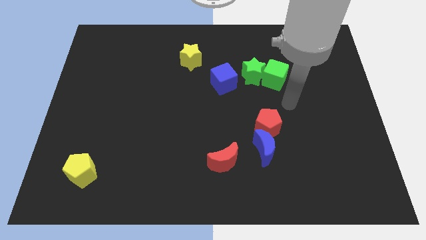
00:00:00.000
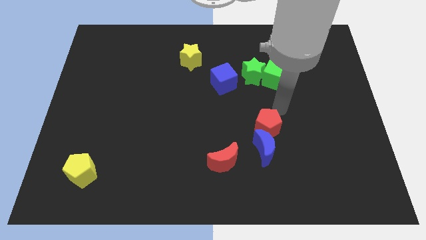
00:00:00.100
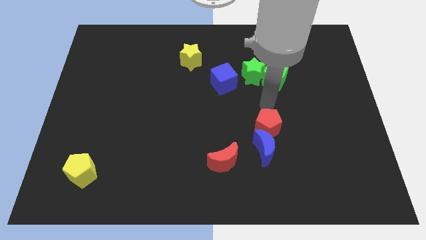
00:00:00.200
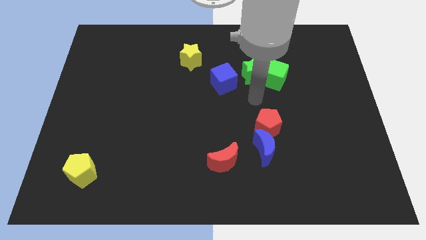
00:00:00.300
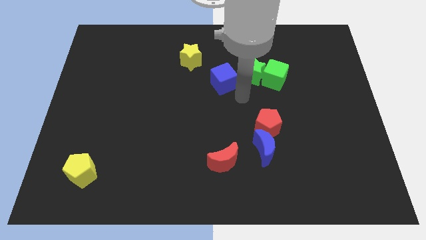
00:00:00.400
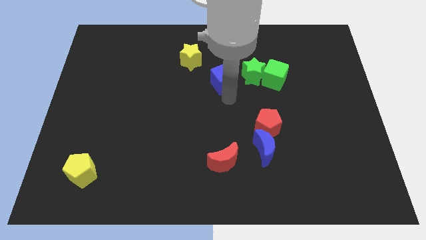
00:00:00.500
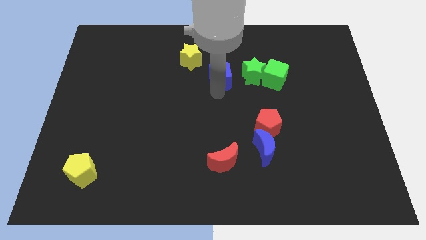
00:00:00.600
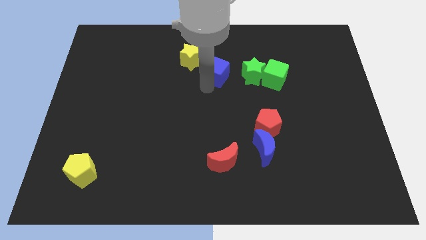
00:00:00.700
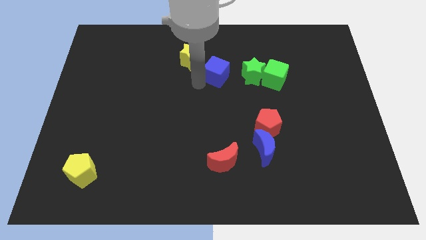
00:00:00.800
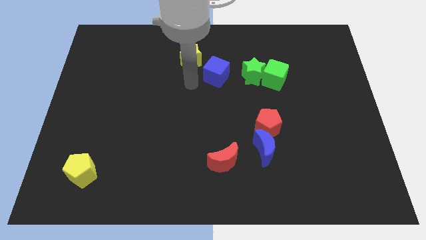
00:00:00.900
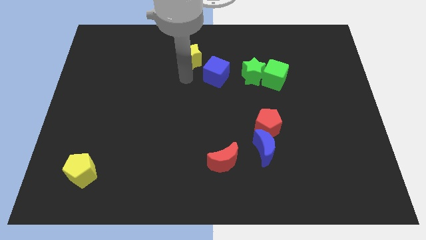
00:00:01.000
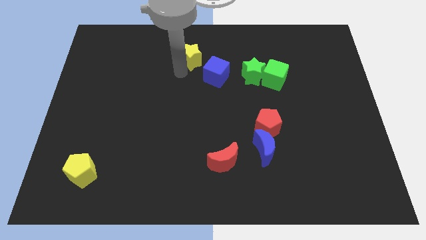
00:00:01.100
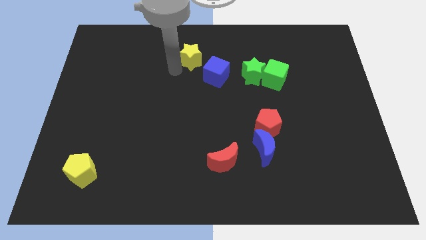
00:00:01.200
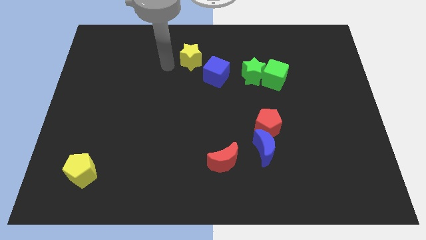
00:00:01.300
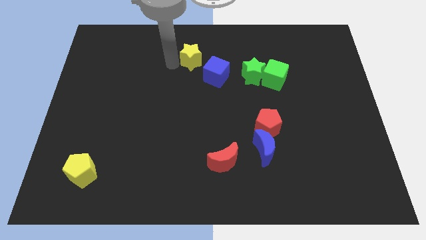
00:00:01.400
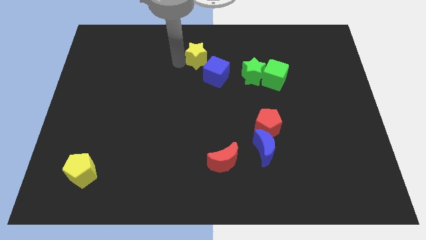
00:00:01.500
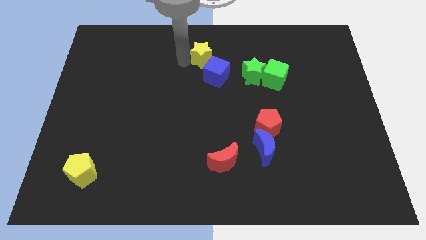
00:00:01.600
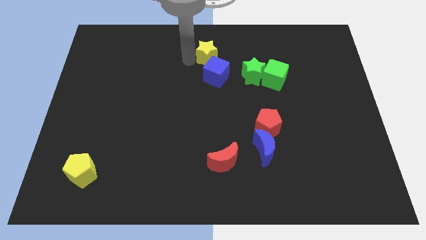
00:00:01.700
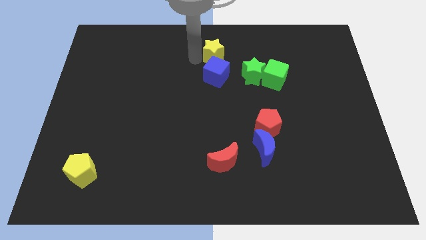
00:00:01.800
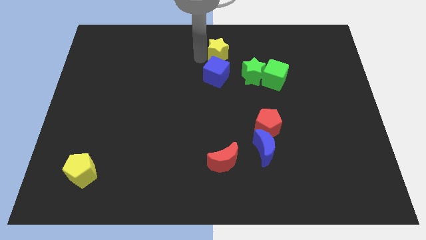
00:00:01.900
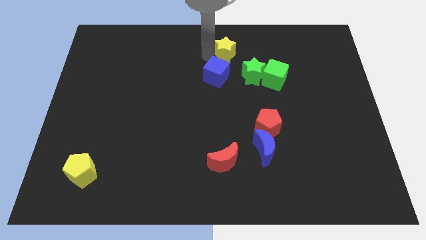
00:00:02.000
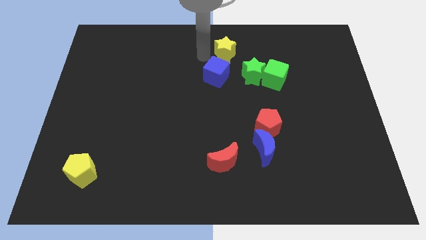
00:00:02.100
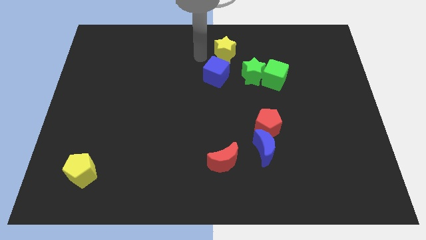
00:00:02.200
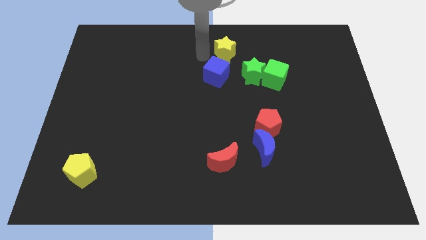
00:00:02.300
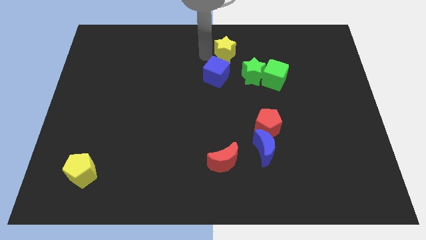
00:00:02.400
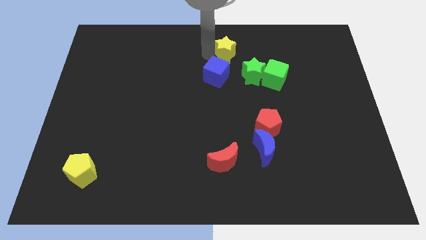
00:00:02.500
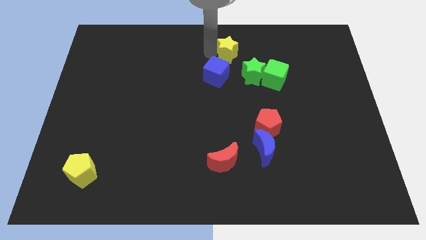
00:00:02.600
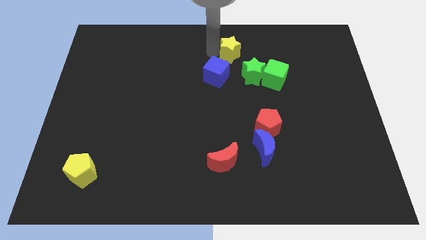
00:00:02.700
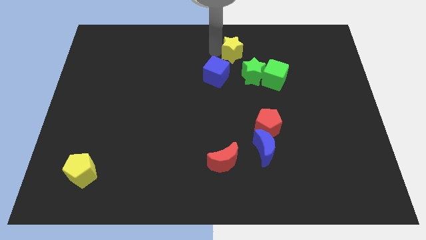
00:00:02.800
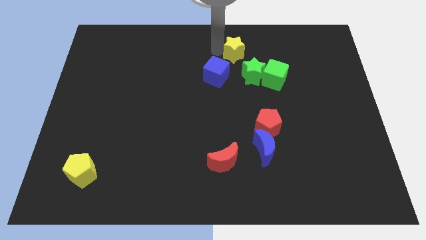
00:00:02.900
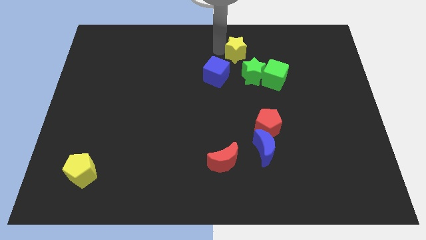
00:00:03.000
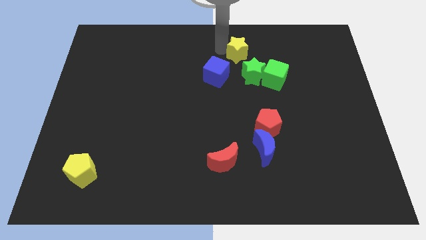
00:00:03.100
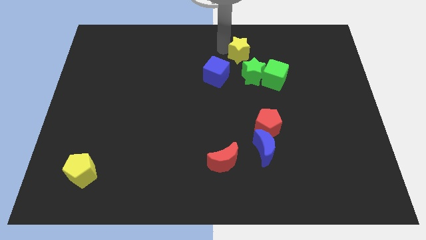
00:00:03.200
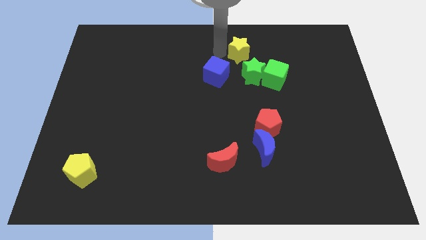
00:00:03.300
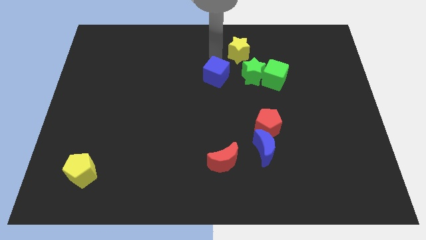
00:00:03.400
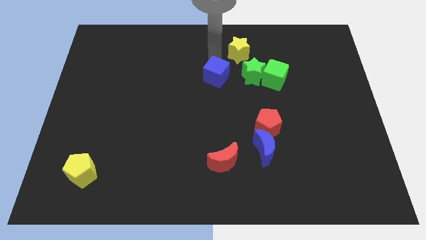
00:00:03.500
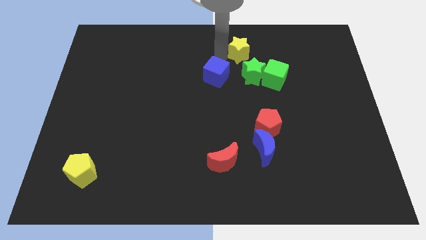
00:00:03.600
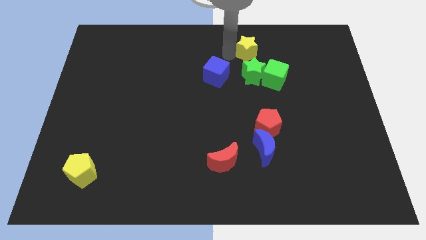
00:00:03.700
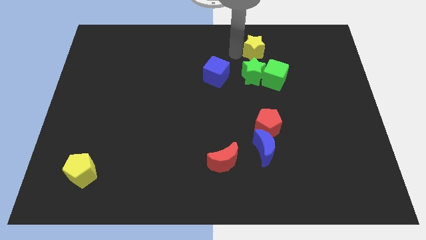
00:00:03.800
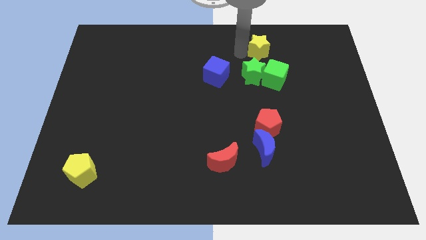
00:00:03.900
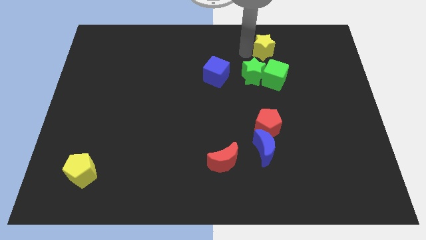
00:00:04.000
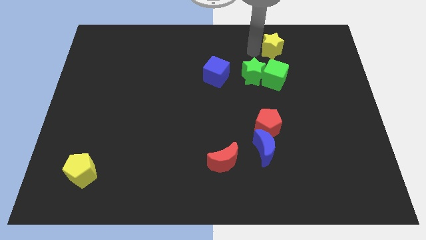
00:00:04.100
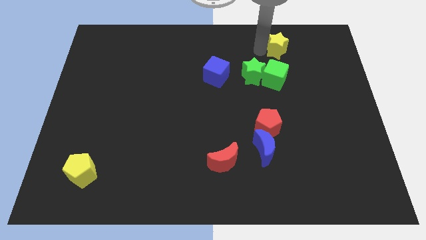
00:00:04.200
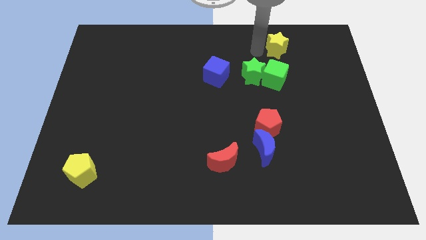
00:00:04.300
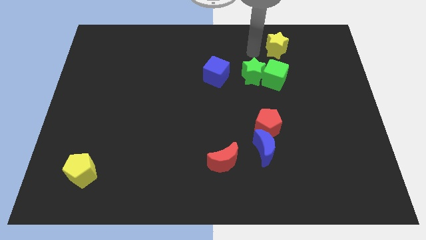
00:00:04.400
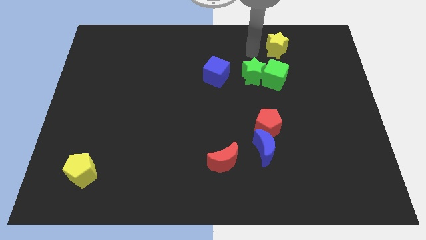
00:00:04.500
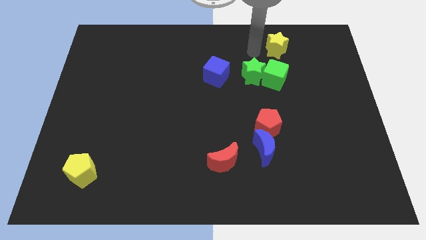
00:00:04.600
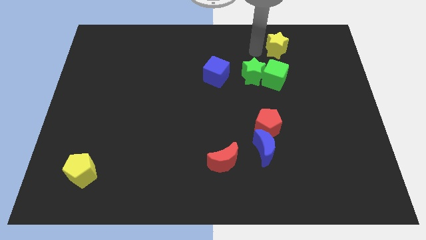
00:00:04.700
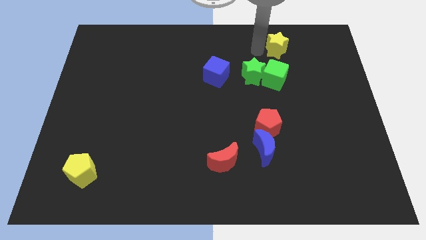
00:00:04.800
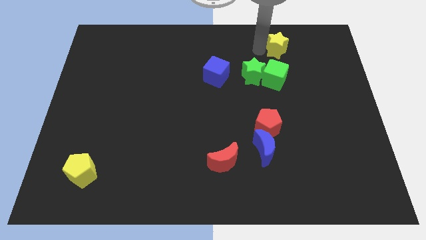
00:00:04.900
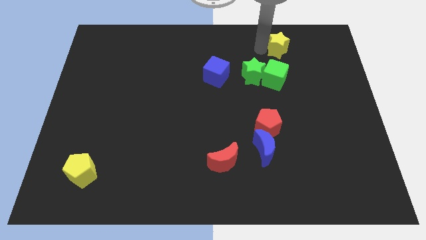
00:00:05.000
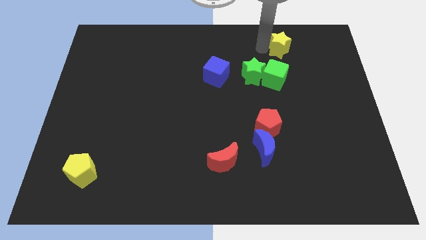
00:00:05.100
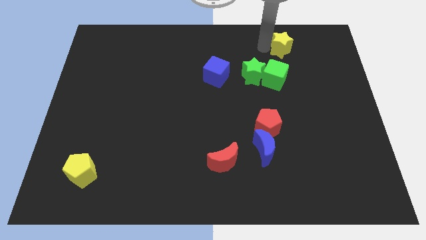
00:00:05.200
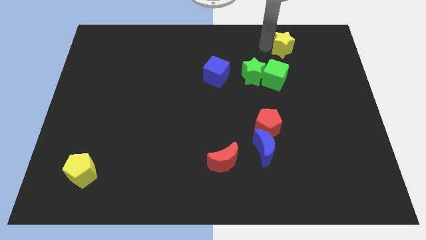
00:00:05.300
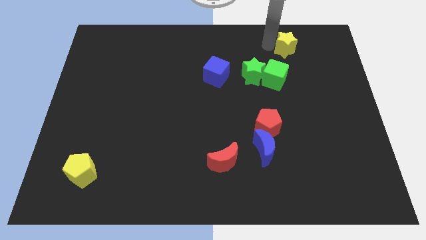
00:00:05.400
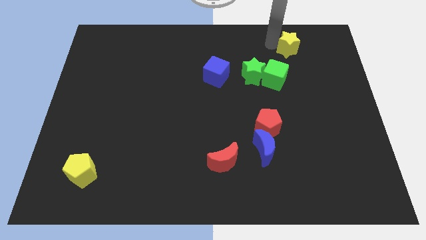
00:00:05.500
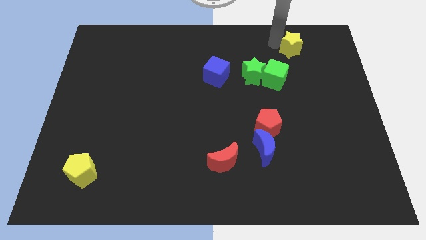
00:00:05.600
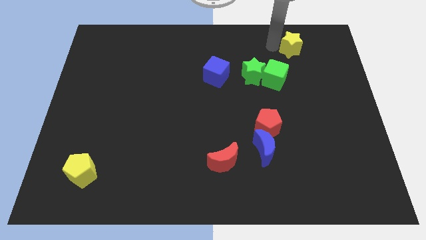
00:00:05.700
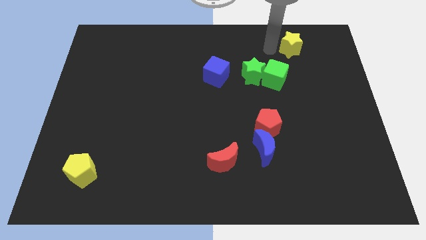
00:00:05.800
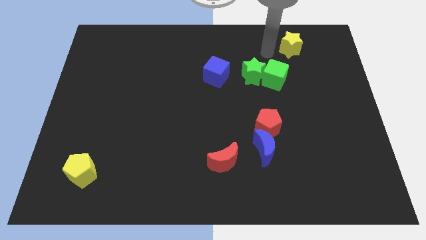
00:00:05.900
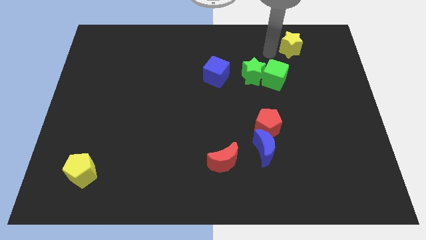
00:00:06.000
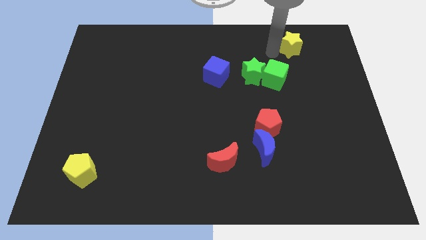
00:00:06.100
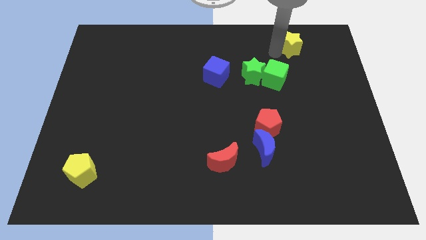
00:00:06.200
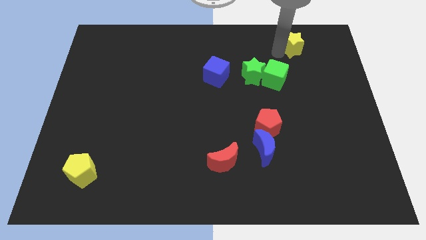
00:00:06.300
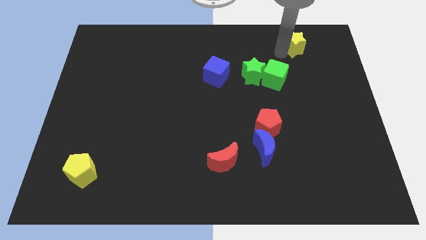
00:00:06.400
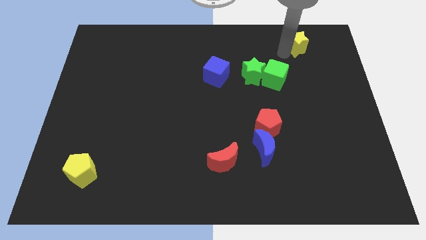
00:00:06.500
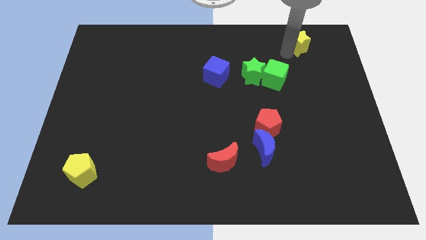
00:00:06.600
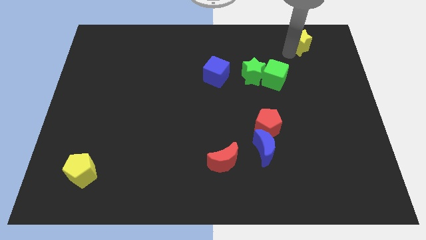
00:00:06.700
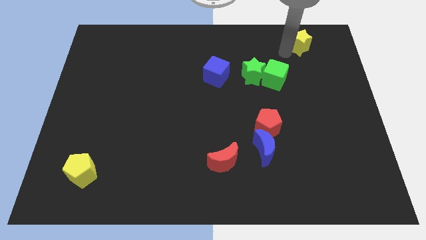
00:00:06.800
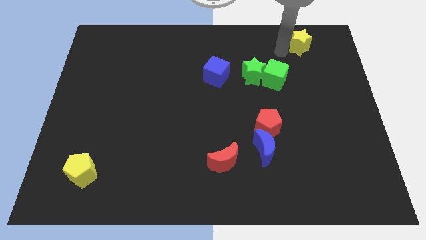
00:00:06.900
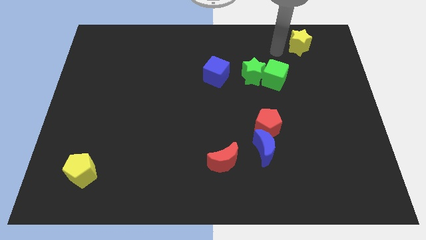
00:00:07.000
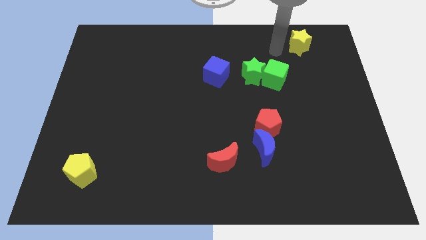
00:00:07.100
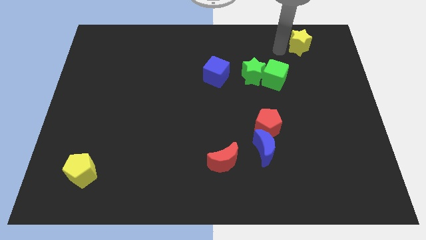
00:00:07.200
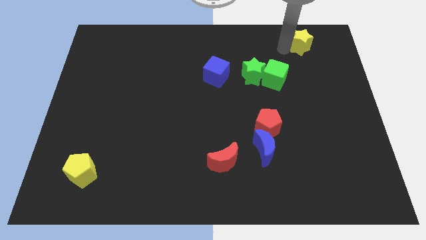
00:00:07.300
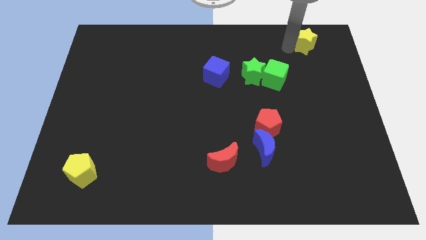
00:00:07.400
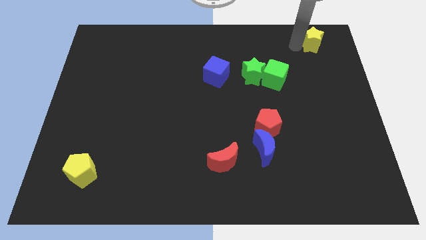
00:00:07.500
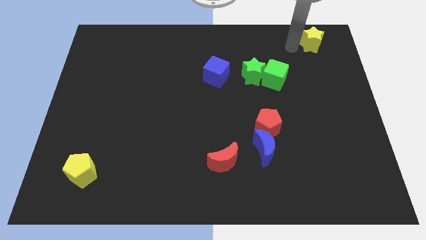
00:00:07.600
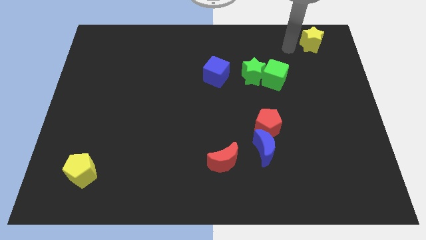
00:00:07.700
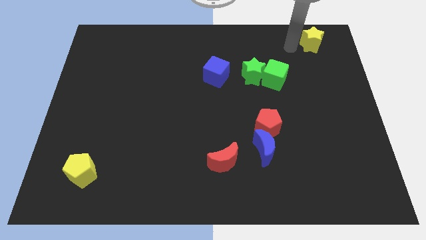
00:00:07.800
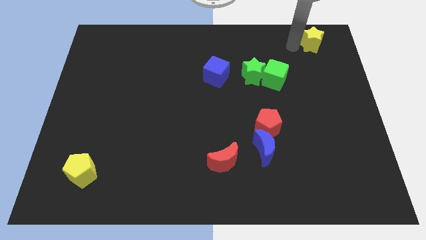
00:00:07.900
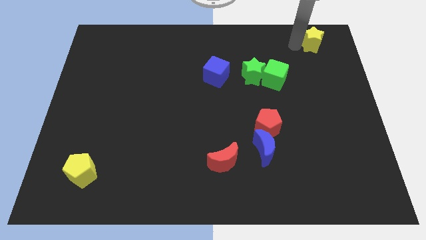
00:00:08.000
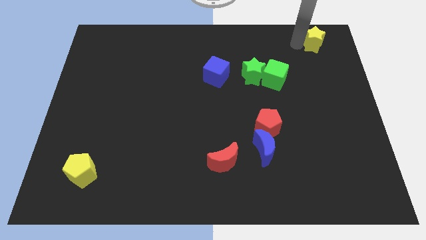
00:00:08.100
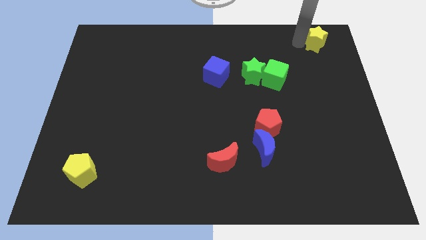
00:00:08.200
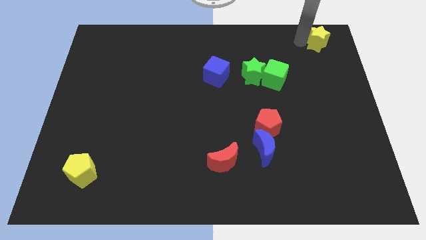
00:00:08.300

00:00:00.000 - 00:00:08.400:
move the yellow star to the upper right corner
